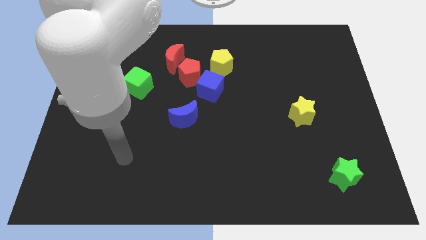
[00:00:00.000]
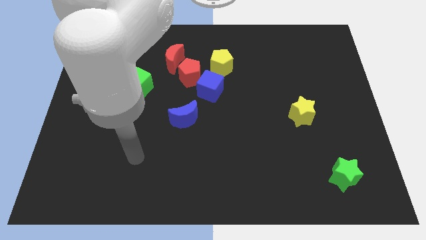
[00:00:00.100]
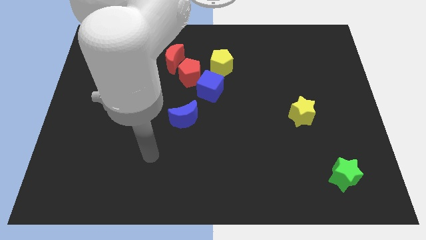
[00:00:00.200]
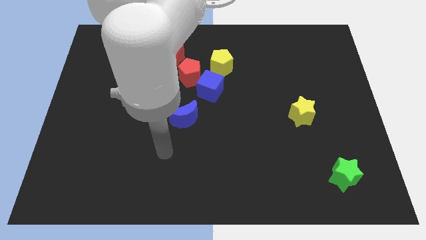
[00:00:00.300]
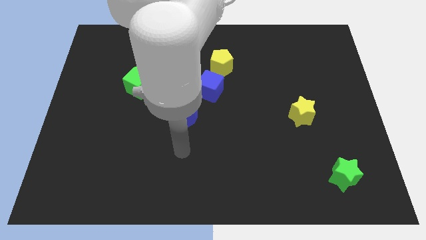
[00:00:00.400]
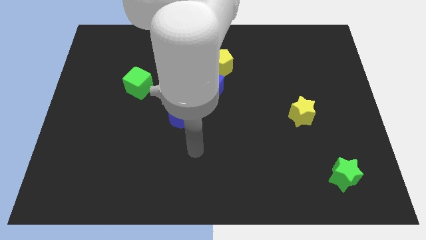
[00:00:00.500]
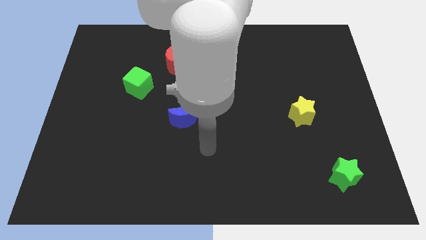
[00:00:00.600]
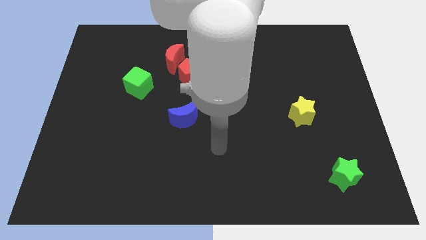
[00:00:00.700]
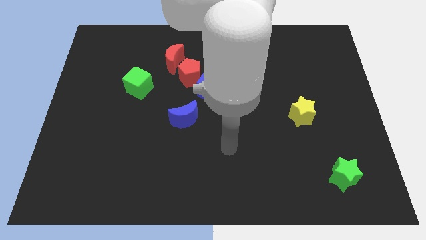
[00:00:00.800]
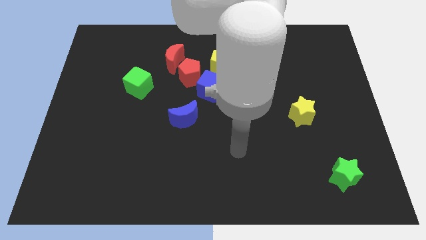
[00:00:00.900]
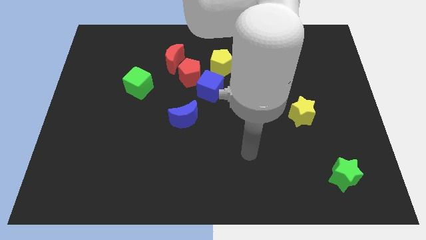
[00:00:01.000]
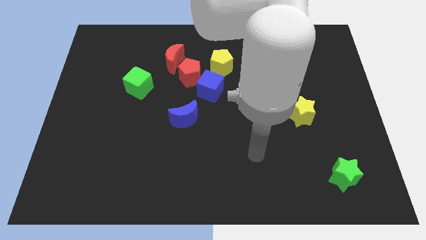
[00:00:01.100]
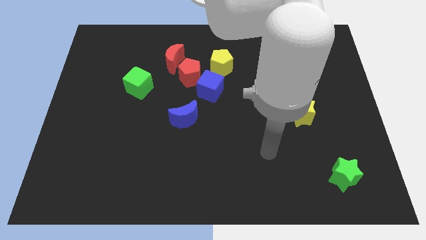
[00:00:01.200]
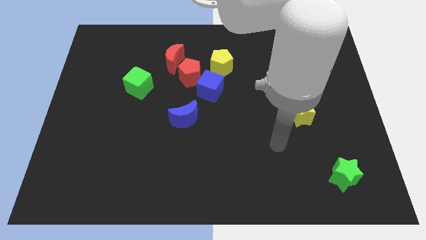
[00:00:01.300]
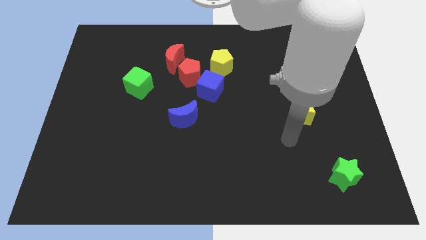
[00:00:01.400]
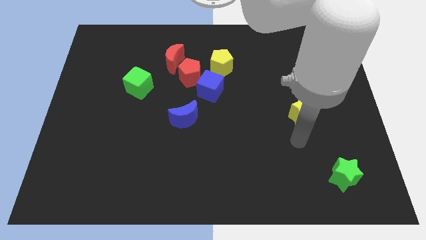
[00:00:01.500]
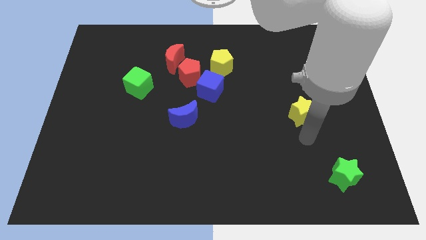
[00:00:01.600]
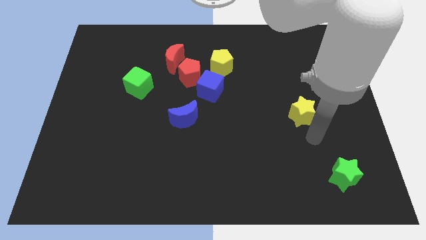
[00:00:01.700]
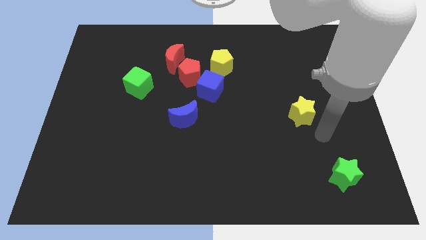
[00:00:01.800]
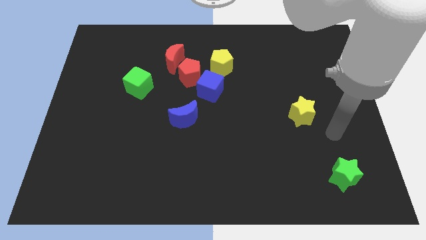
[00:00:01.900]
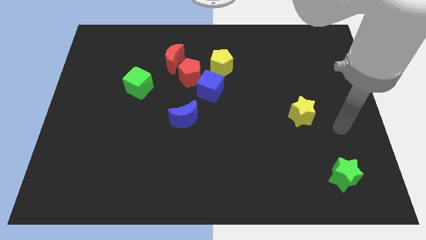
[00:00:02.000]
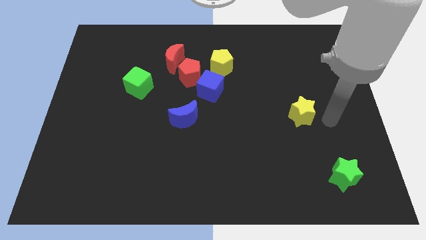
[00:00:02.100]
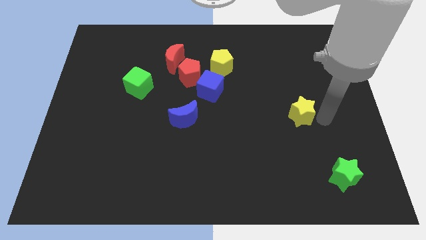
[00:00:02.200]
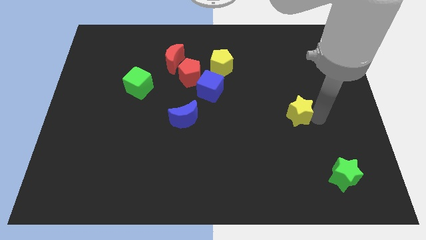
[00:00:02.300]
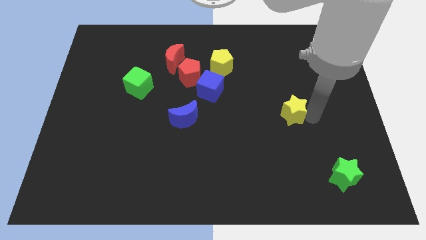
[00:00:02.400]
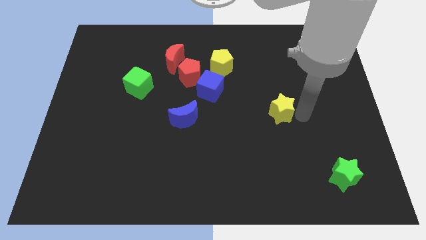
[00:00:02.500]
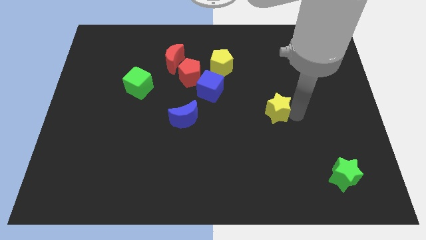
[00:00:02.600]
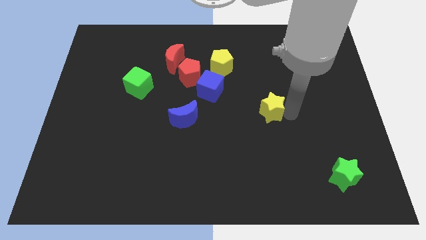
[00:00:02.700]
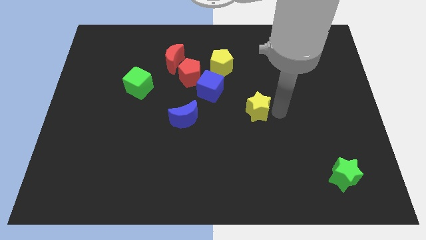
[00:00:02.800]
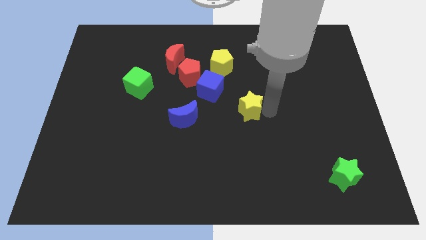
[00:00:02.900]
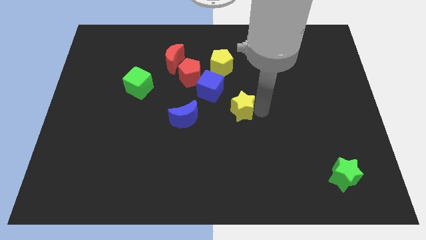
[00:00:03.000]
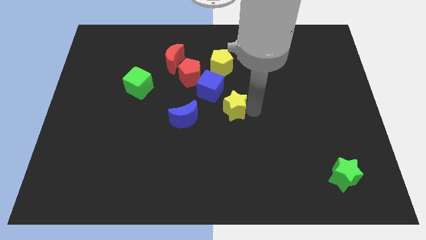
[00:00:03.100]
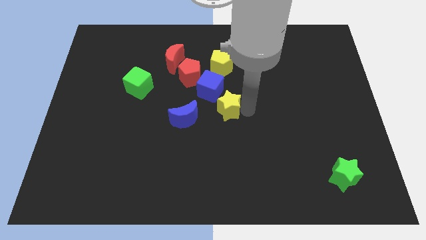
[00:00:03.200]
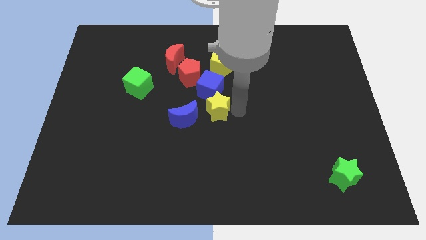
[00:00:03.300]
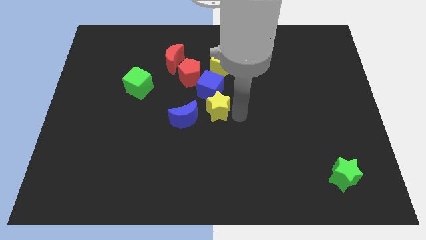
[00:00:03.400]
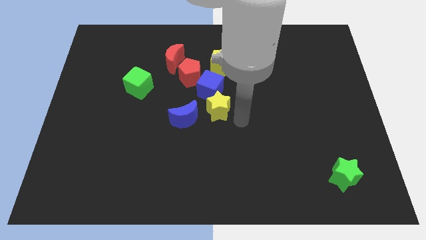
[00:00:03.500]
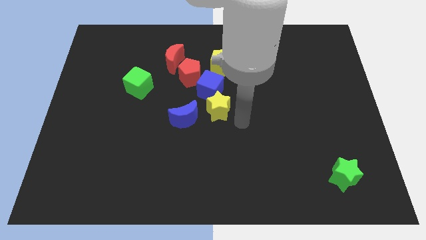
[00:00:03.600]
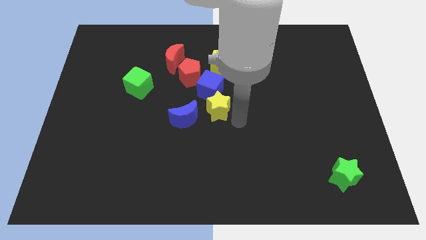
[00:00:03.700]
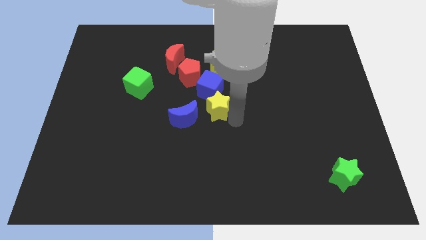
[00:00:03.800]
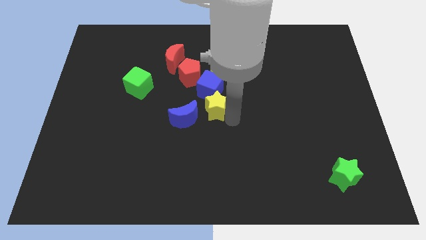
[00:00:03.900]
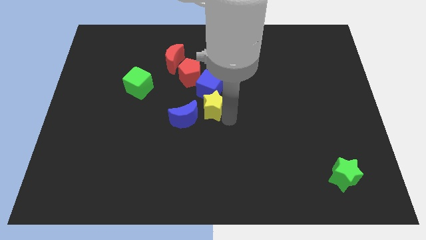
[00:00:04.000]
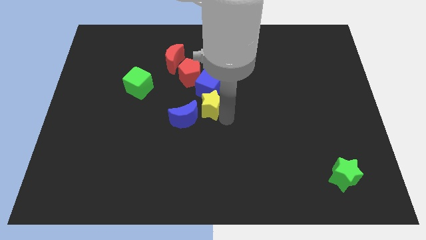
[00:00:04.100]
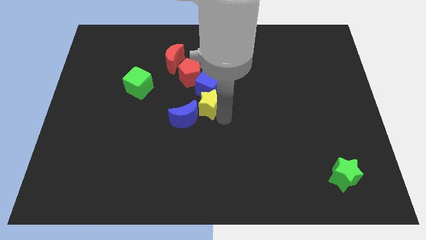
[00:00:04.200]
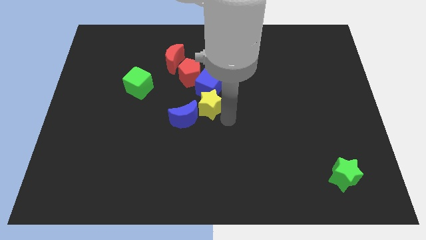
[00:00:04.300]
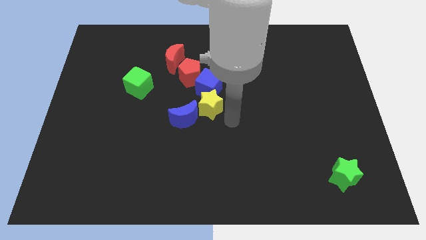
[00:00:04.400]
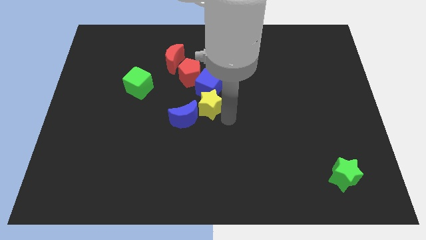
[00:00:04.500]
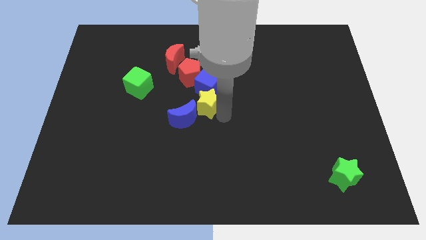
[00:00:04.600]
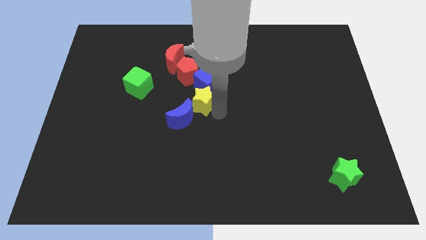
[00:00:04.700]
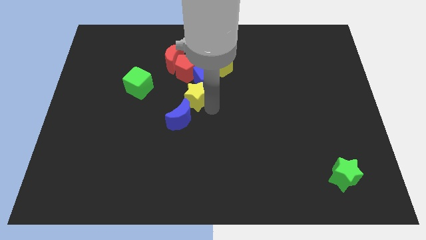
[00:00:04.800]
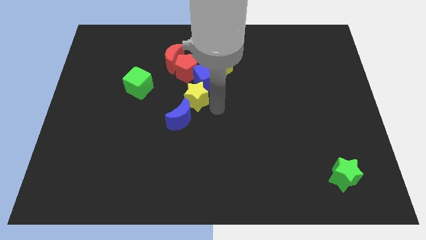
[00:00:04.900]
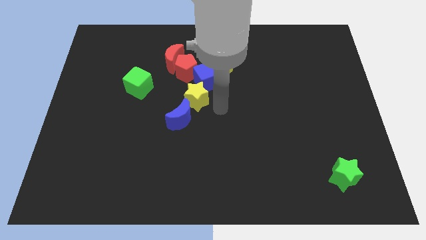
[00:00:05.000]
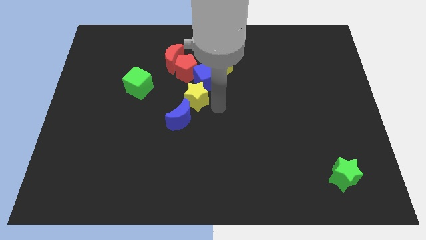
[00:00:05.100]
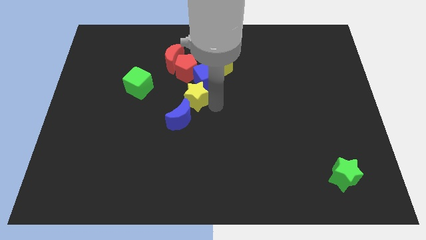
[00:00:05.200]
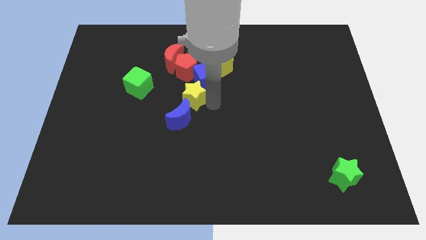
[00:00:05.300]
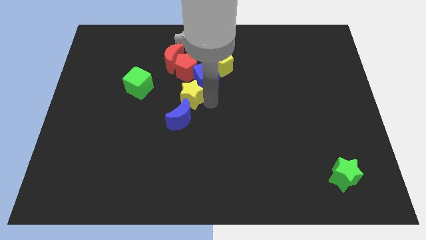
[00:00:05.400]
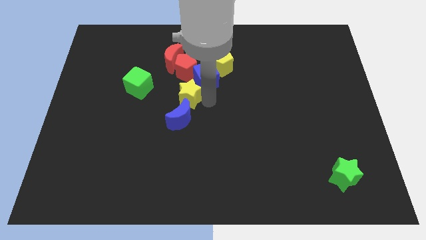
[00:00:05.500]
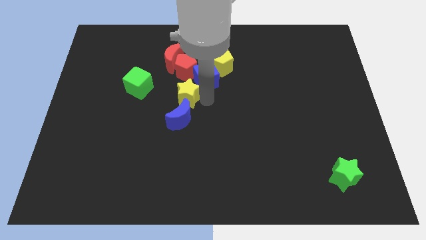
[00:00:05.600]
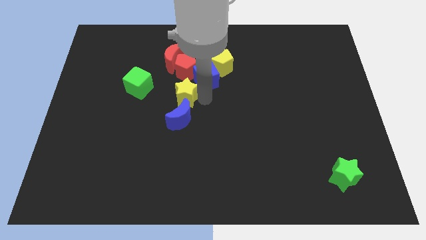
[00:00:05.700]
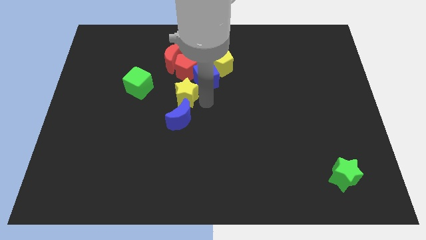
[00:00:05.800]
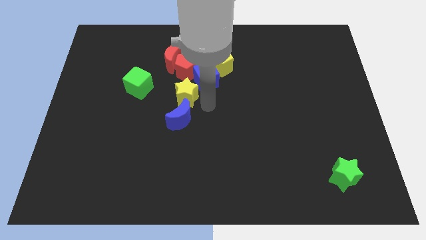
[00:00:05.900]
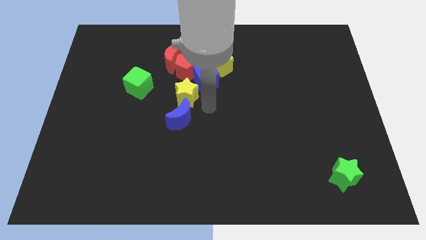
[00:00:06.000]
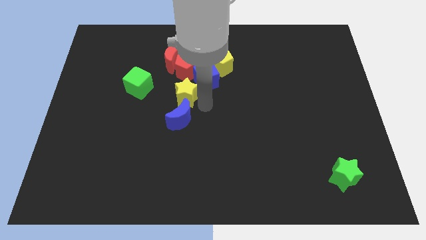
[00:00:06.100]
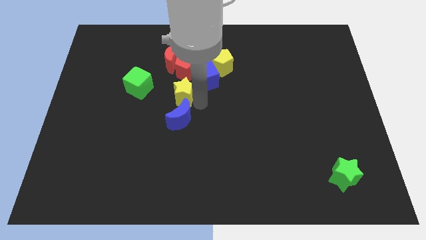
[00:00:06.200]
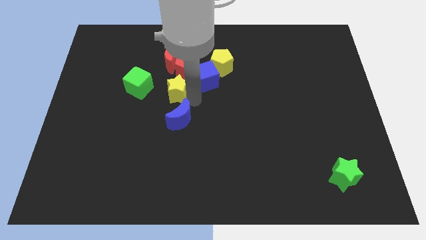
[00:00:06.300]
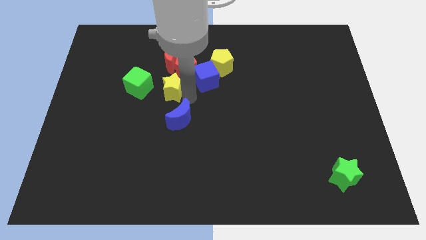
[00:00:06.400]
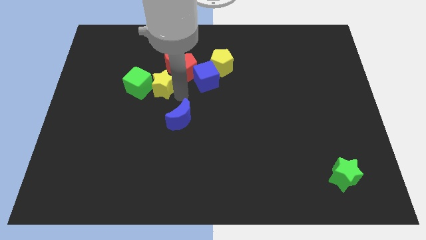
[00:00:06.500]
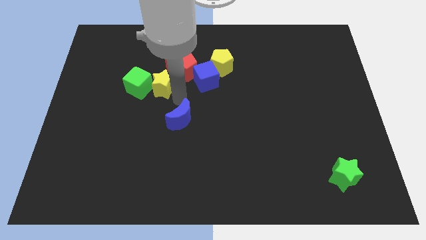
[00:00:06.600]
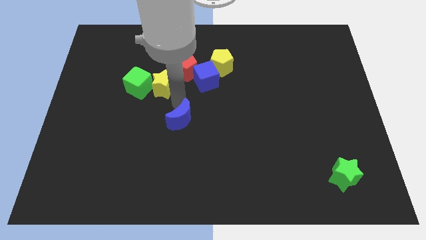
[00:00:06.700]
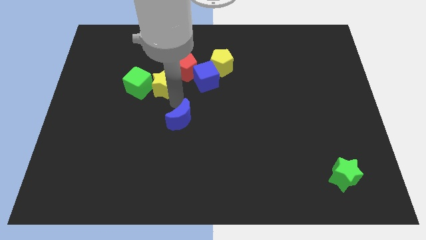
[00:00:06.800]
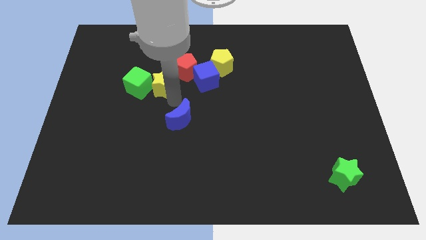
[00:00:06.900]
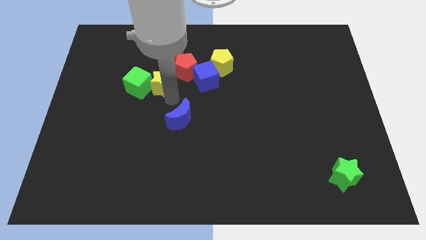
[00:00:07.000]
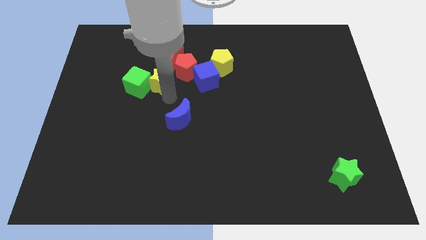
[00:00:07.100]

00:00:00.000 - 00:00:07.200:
move the yellow star left of the red pentagon

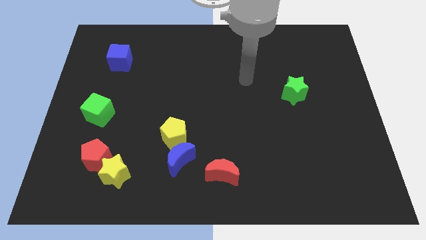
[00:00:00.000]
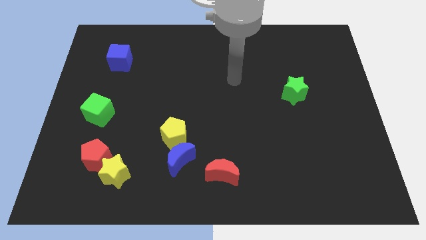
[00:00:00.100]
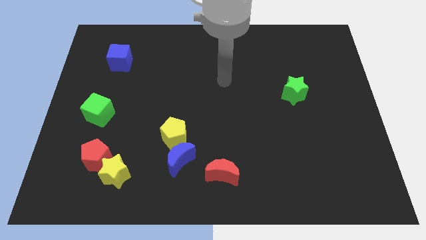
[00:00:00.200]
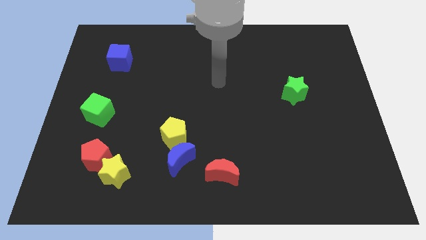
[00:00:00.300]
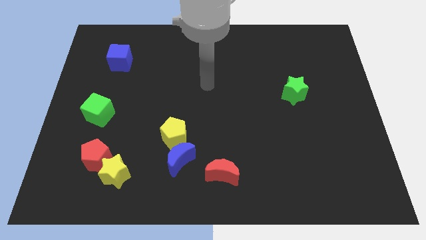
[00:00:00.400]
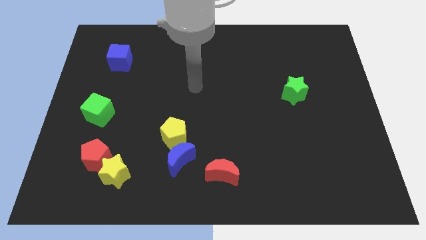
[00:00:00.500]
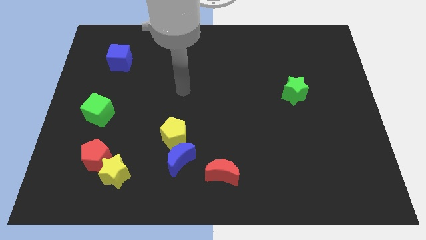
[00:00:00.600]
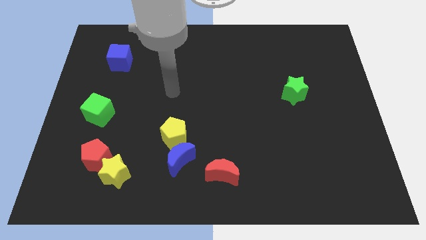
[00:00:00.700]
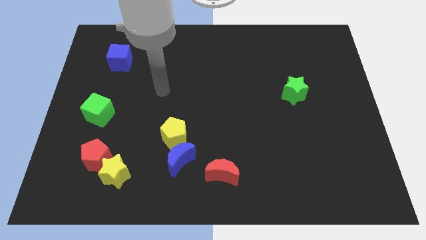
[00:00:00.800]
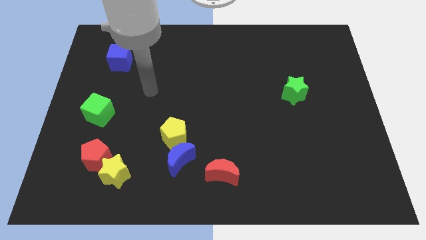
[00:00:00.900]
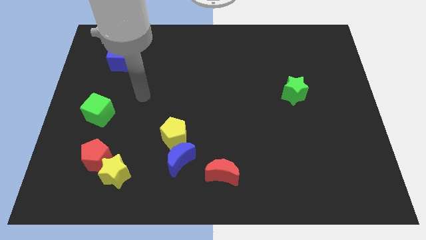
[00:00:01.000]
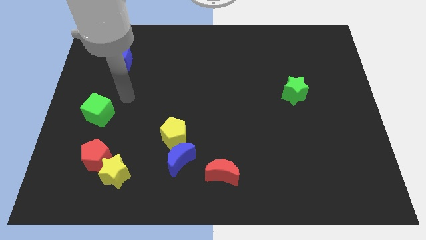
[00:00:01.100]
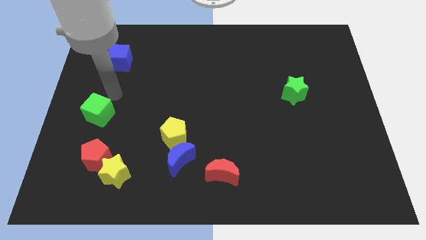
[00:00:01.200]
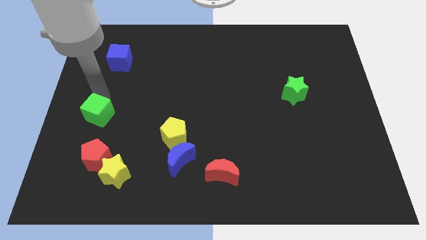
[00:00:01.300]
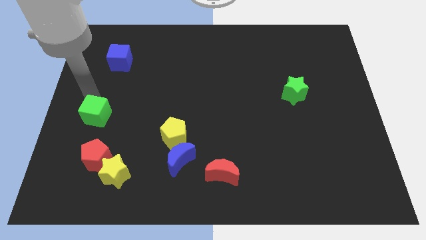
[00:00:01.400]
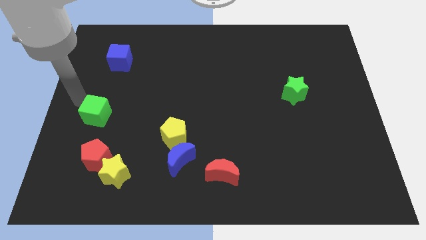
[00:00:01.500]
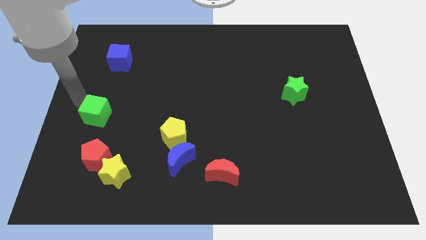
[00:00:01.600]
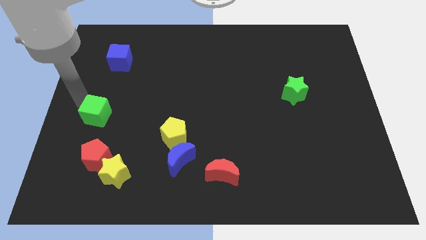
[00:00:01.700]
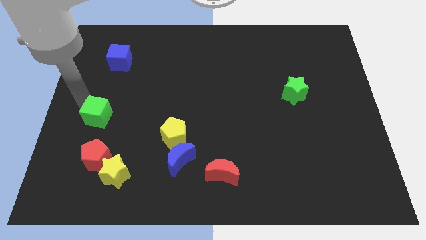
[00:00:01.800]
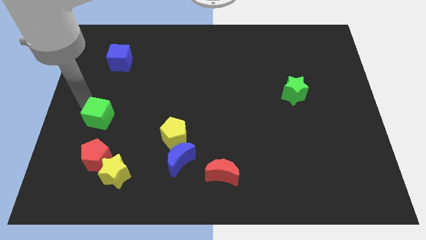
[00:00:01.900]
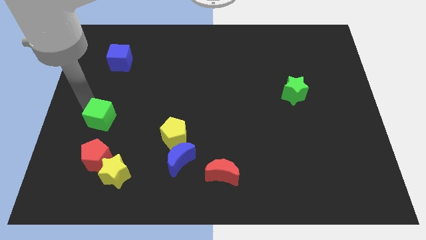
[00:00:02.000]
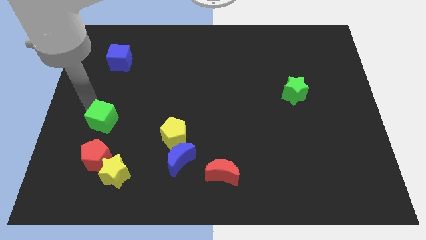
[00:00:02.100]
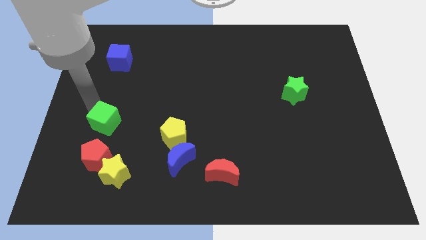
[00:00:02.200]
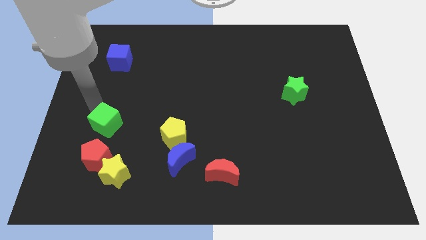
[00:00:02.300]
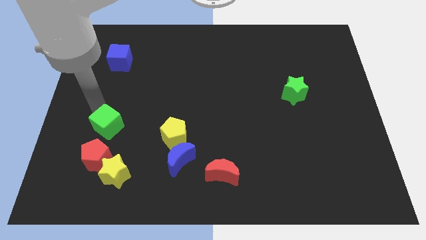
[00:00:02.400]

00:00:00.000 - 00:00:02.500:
slide the green cube left of the yellow pentagon
